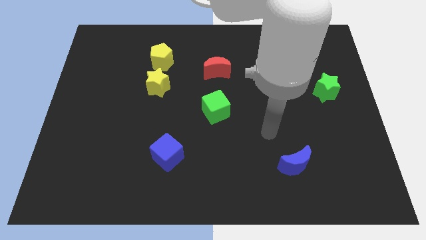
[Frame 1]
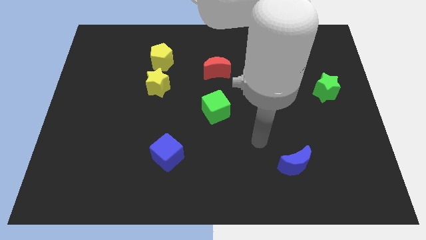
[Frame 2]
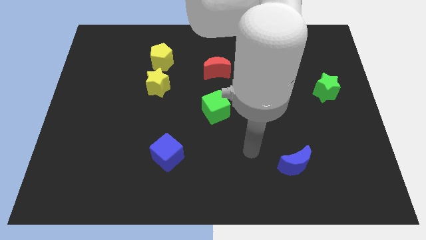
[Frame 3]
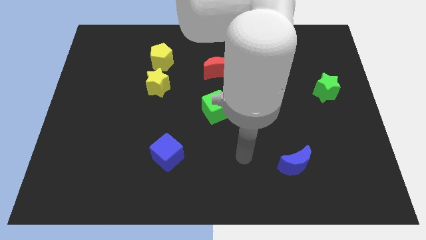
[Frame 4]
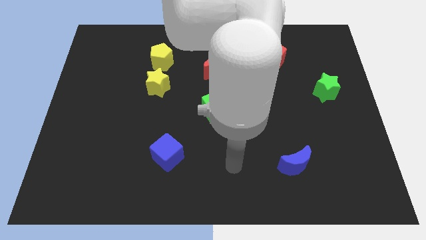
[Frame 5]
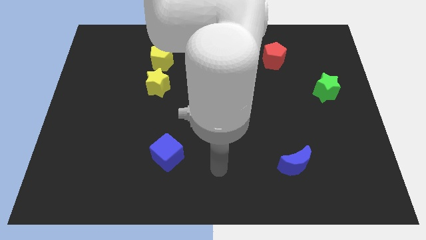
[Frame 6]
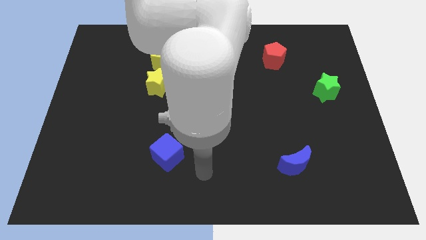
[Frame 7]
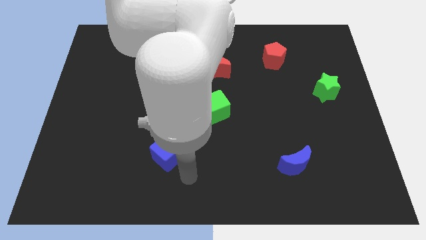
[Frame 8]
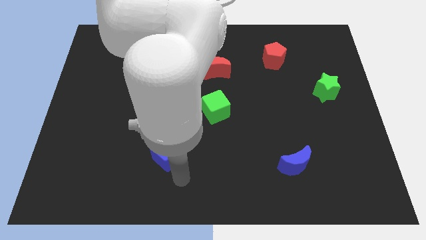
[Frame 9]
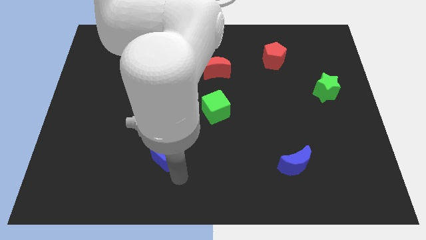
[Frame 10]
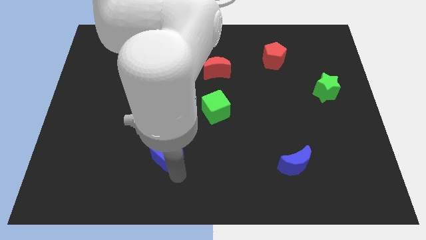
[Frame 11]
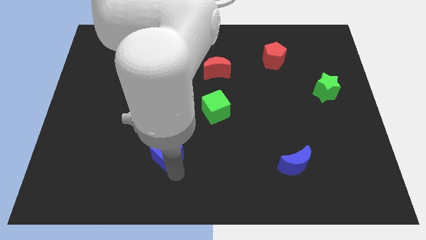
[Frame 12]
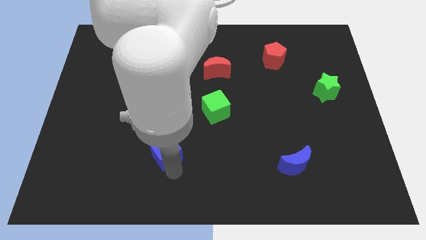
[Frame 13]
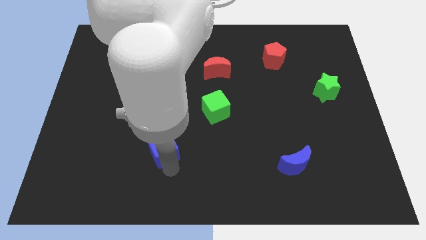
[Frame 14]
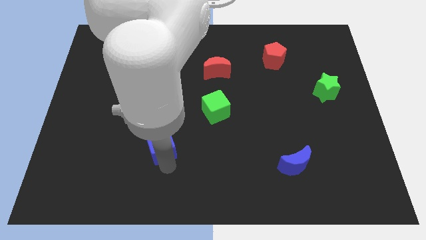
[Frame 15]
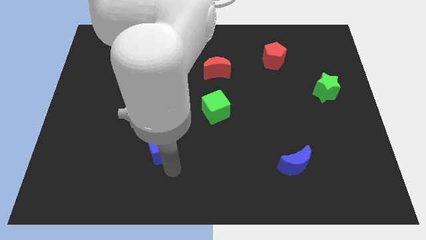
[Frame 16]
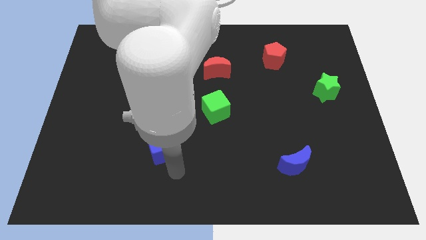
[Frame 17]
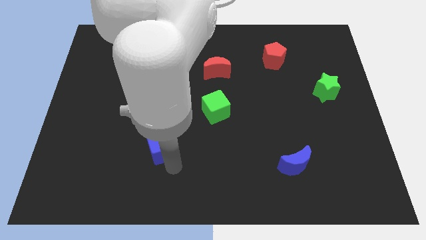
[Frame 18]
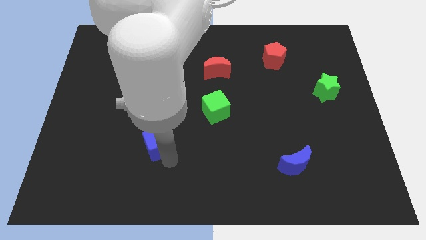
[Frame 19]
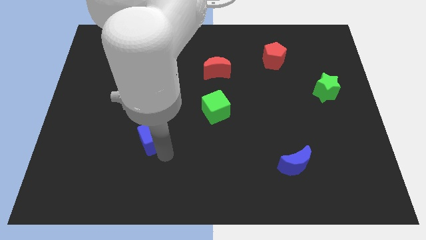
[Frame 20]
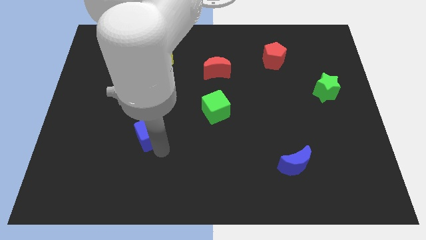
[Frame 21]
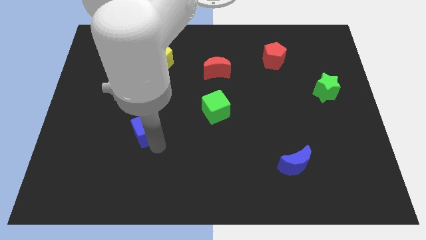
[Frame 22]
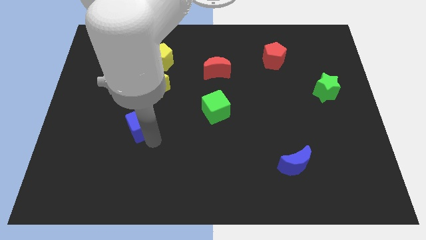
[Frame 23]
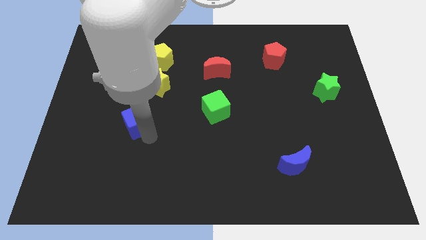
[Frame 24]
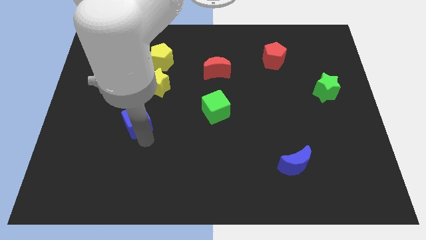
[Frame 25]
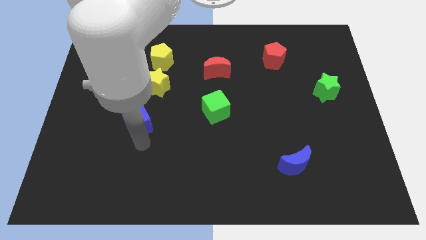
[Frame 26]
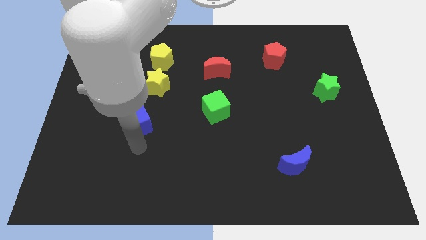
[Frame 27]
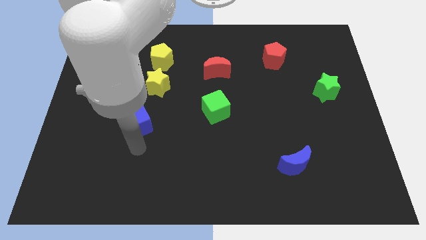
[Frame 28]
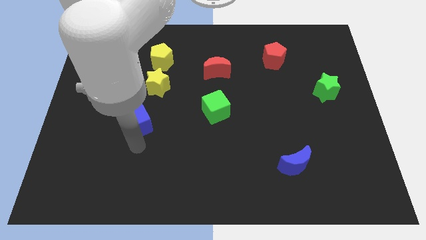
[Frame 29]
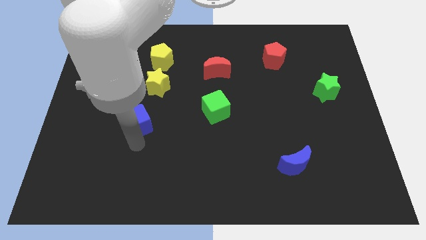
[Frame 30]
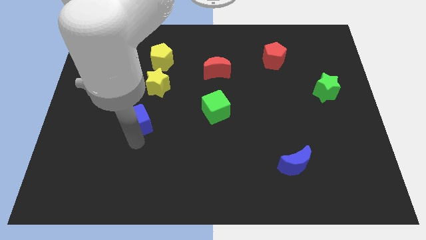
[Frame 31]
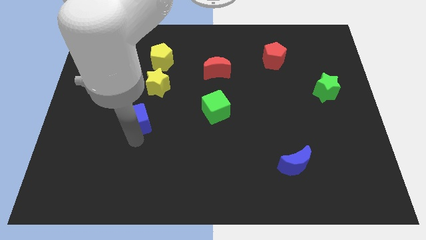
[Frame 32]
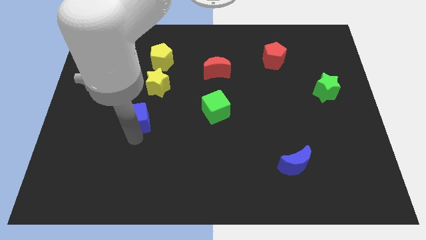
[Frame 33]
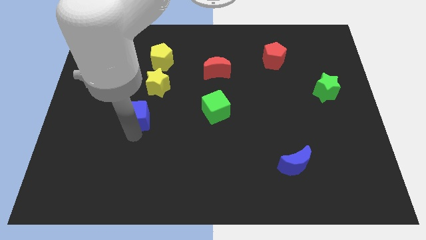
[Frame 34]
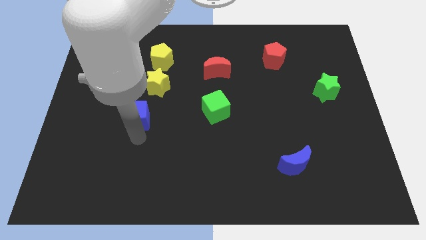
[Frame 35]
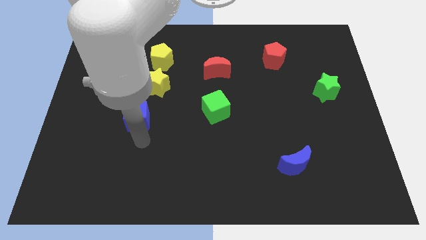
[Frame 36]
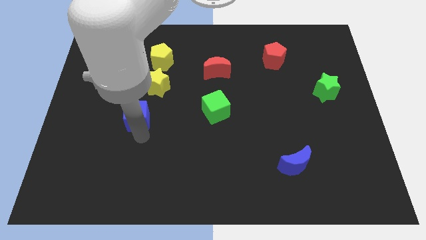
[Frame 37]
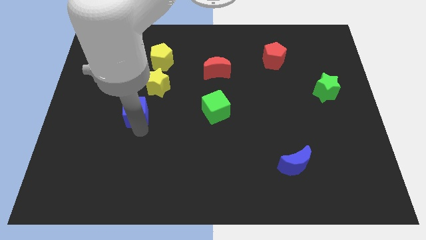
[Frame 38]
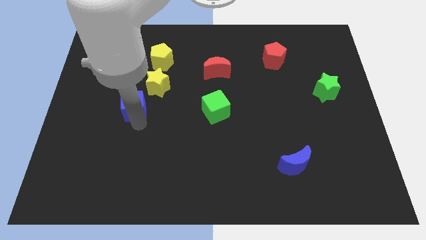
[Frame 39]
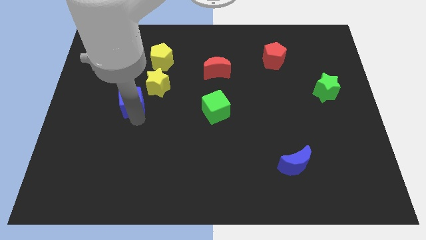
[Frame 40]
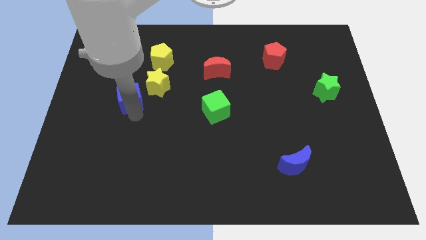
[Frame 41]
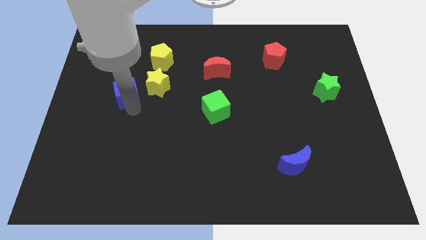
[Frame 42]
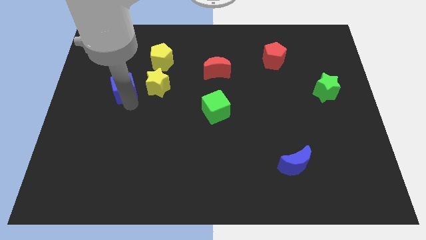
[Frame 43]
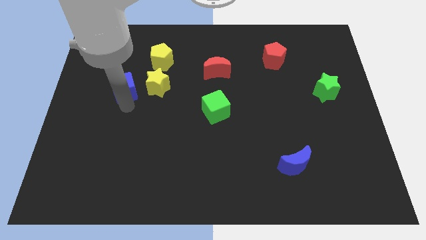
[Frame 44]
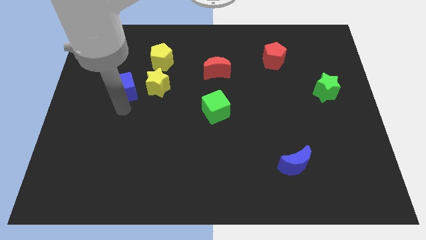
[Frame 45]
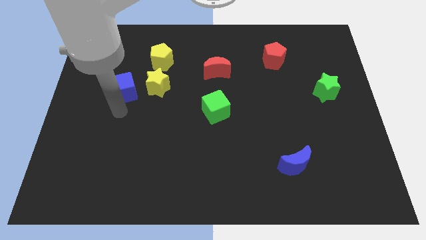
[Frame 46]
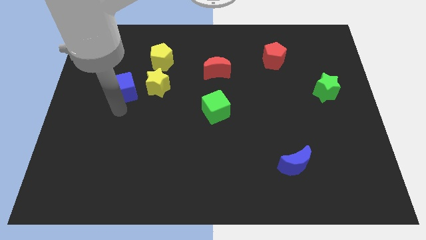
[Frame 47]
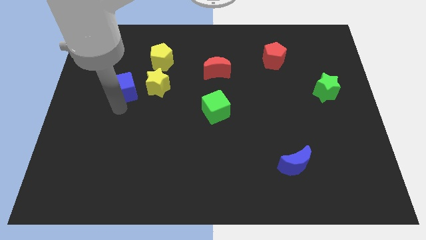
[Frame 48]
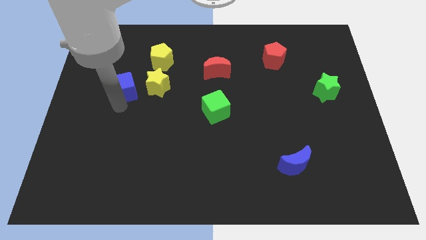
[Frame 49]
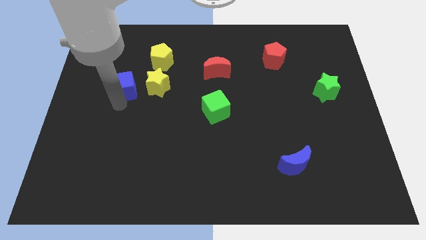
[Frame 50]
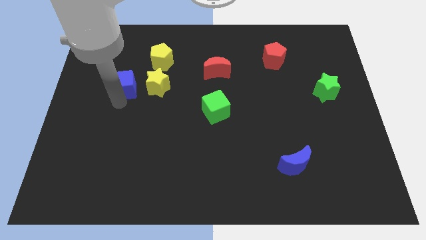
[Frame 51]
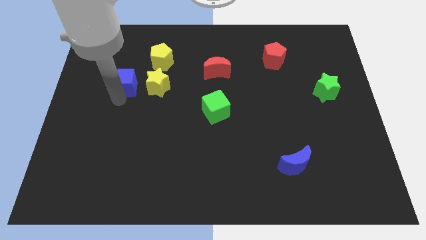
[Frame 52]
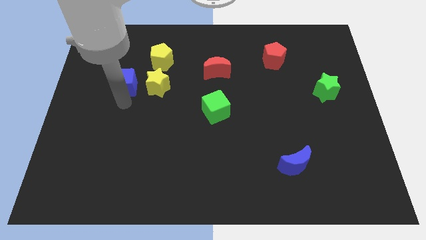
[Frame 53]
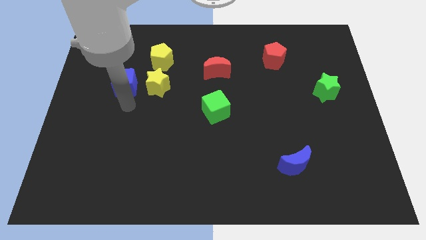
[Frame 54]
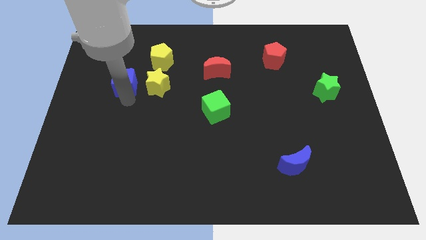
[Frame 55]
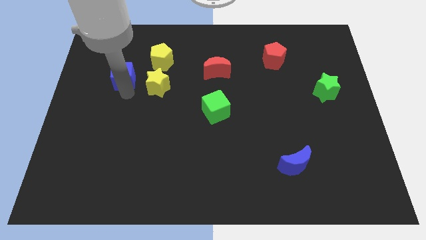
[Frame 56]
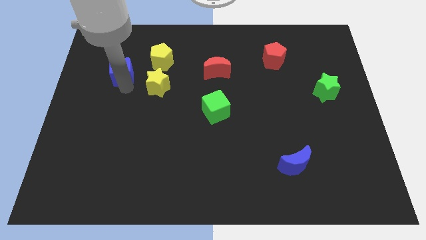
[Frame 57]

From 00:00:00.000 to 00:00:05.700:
push the blue cube just left of the yellow pentagon

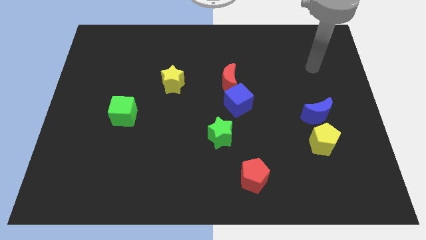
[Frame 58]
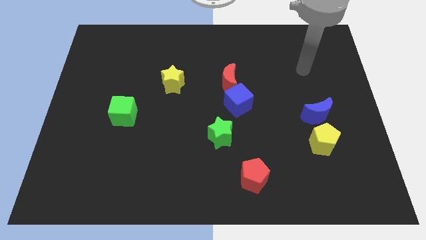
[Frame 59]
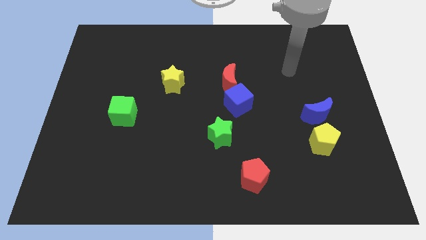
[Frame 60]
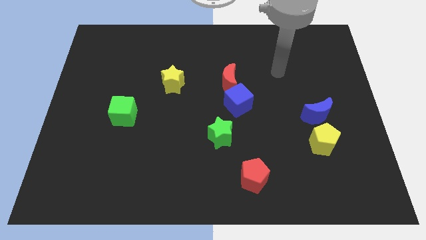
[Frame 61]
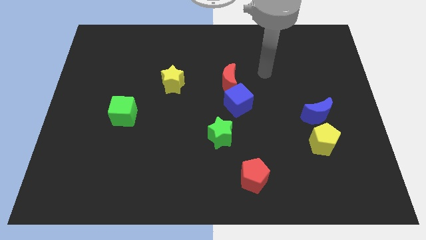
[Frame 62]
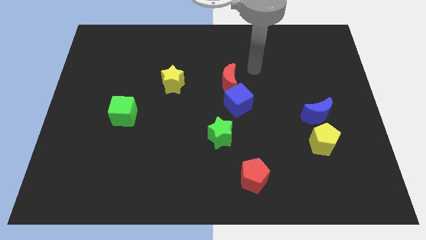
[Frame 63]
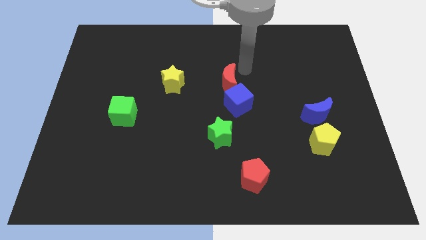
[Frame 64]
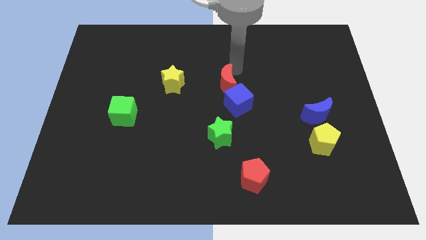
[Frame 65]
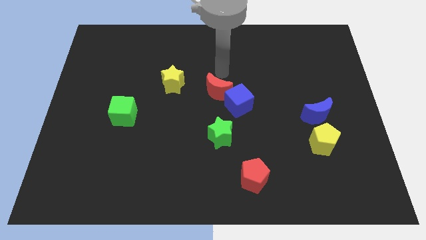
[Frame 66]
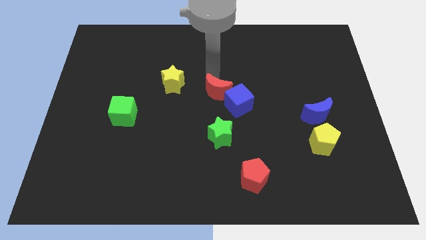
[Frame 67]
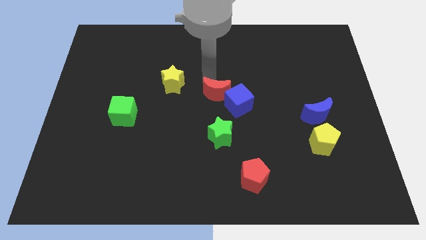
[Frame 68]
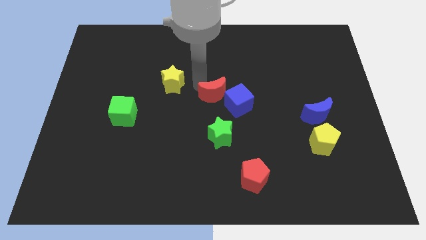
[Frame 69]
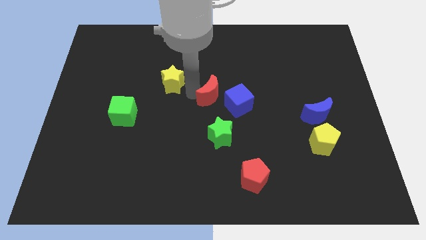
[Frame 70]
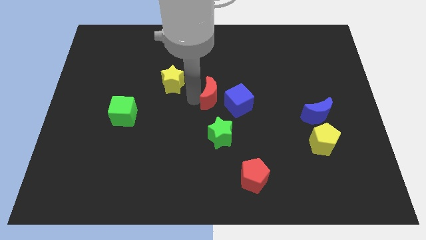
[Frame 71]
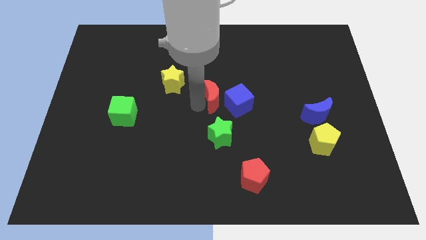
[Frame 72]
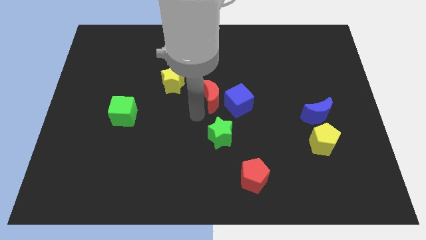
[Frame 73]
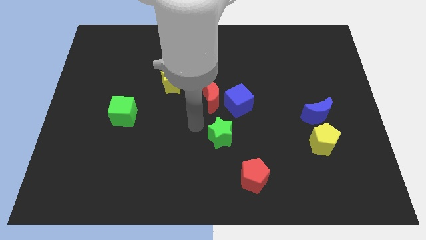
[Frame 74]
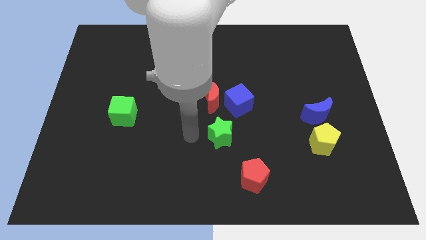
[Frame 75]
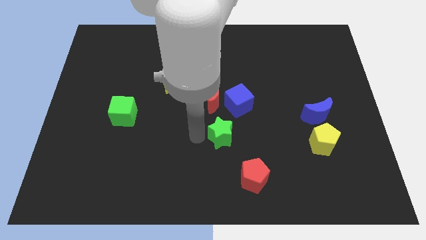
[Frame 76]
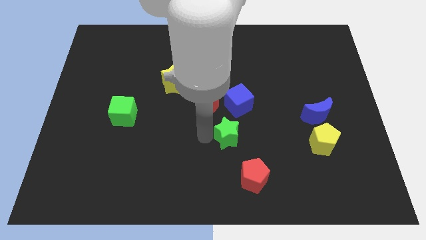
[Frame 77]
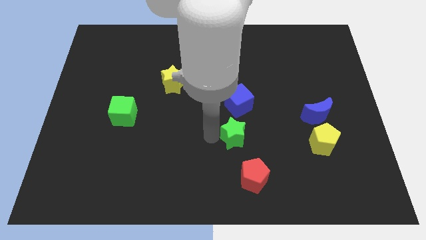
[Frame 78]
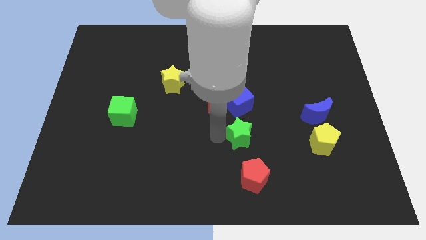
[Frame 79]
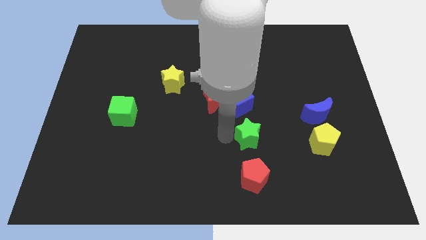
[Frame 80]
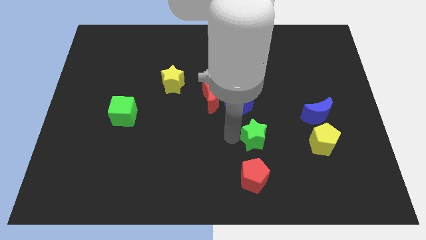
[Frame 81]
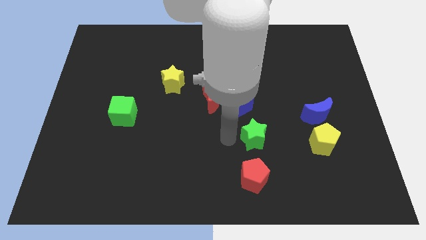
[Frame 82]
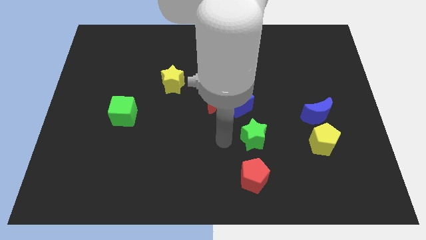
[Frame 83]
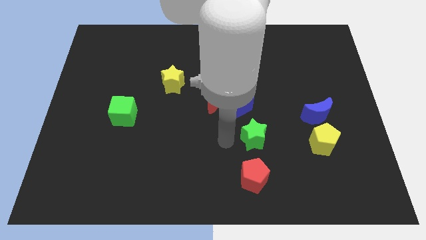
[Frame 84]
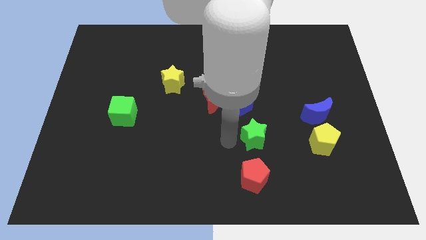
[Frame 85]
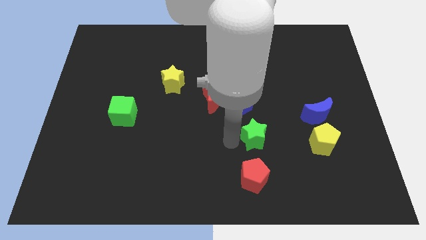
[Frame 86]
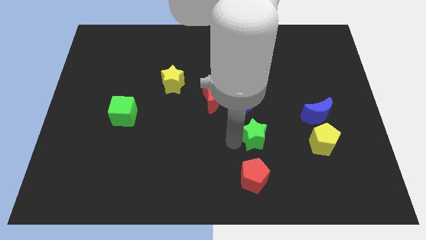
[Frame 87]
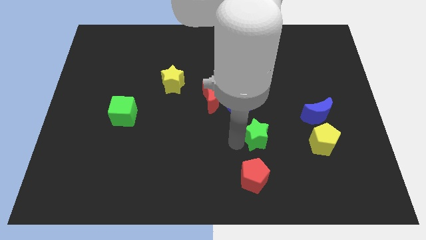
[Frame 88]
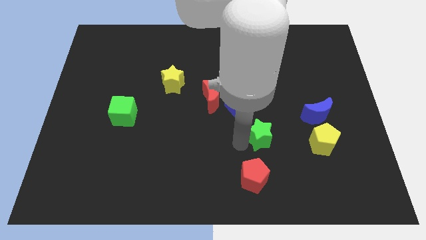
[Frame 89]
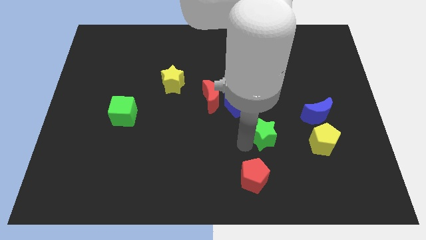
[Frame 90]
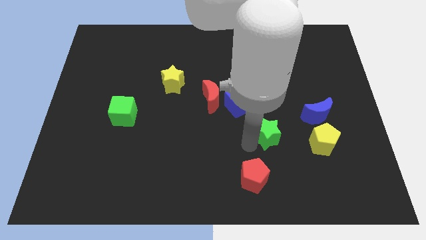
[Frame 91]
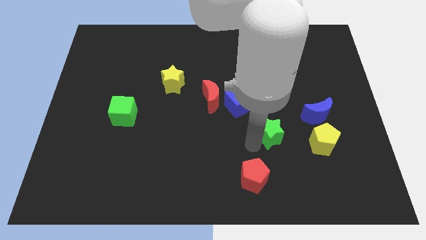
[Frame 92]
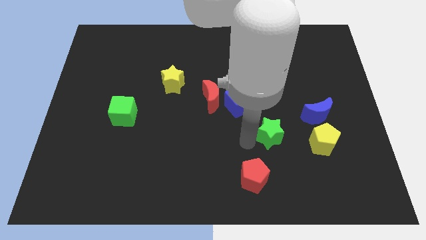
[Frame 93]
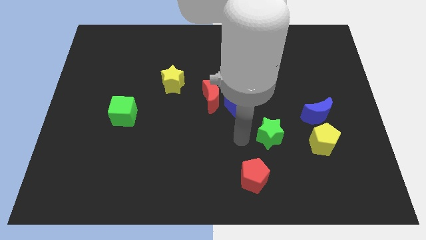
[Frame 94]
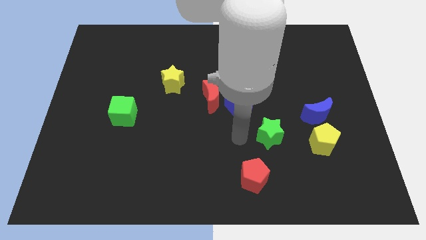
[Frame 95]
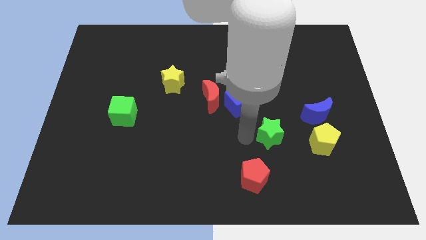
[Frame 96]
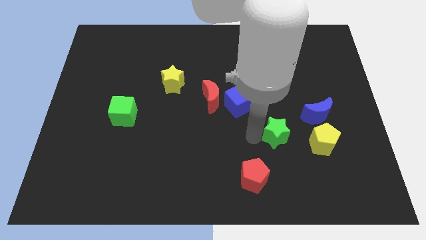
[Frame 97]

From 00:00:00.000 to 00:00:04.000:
push the green star diagonally down and to the left of the blue moon
